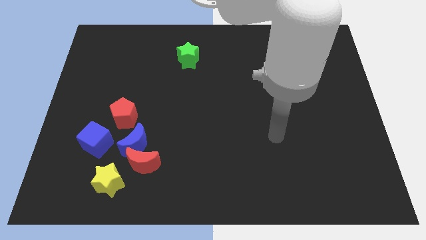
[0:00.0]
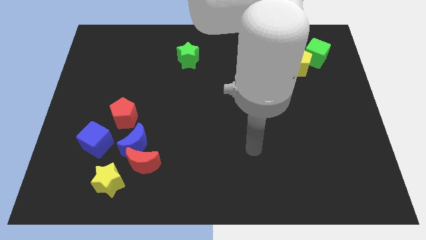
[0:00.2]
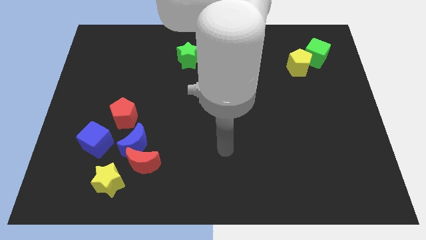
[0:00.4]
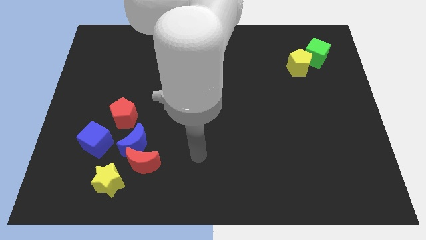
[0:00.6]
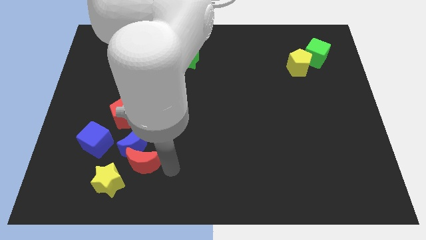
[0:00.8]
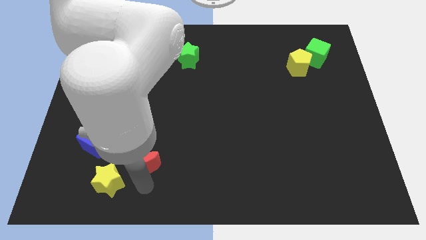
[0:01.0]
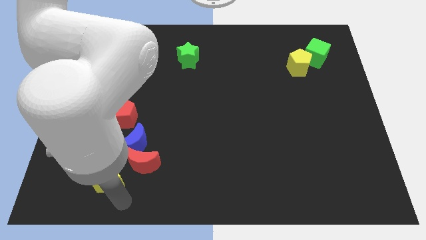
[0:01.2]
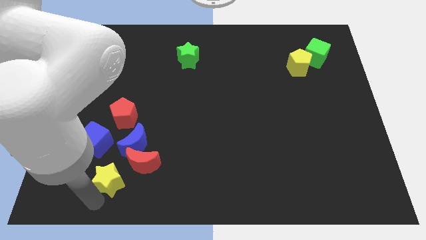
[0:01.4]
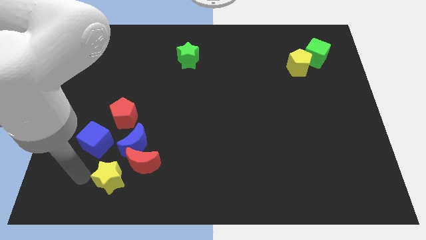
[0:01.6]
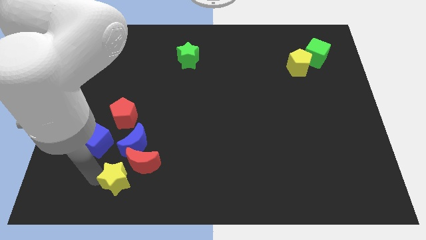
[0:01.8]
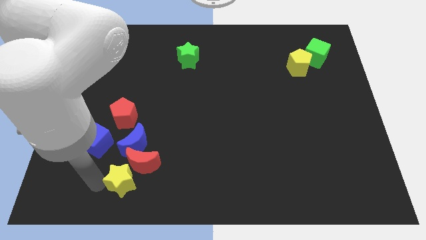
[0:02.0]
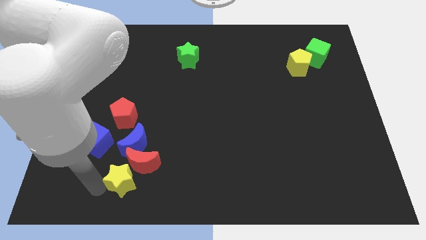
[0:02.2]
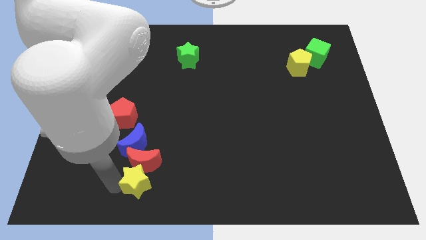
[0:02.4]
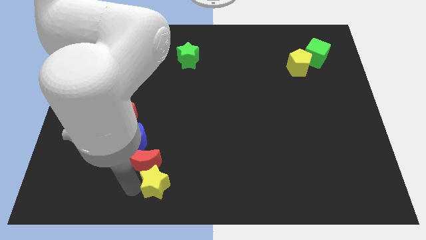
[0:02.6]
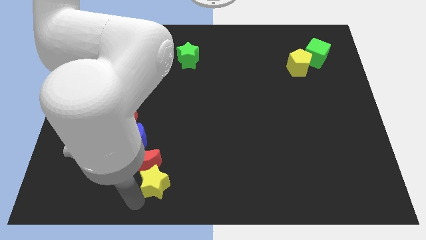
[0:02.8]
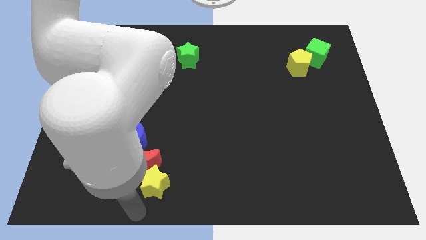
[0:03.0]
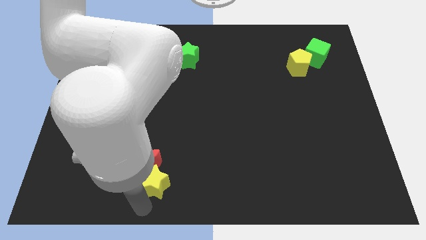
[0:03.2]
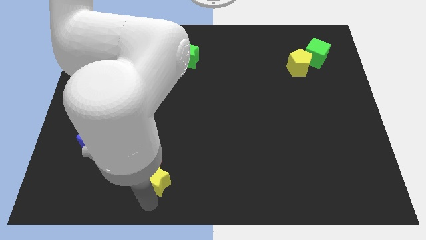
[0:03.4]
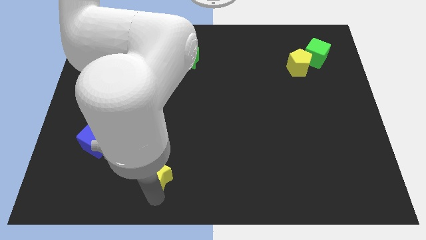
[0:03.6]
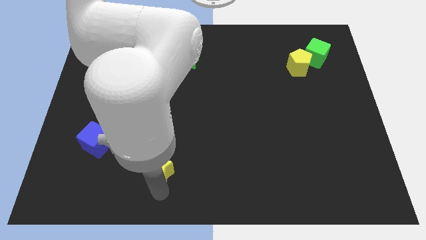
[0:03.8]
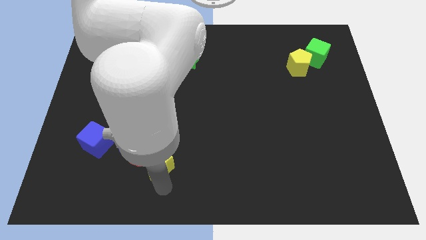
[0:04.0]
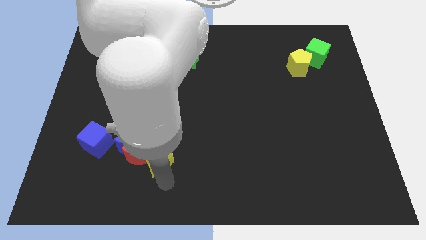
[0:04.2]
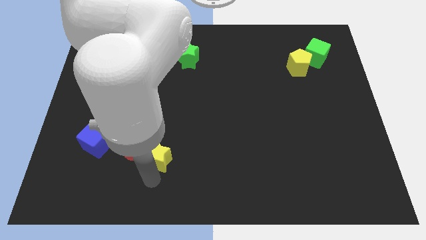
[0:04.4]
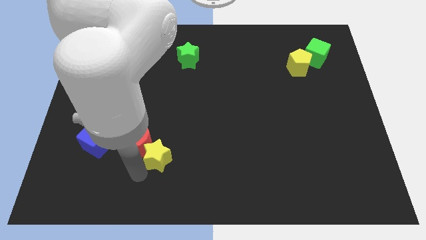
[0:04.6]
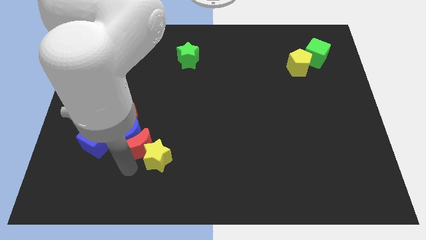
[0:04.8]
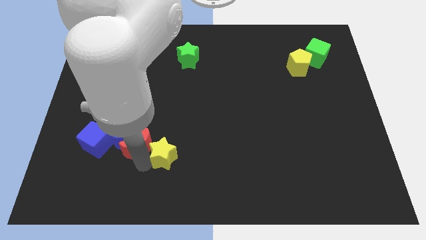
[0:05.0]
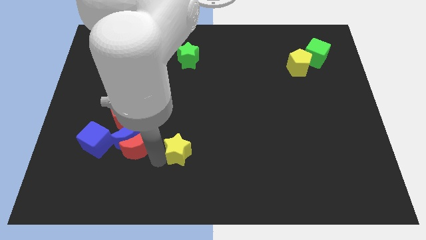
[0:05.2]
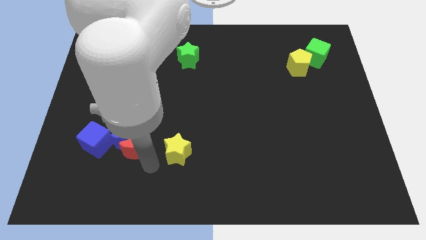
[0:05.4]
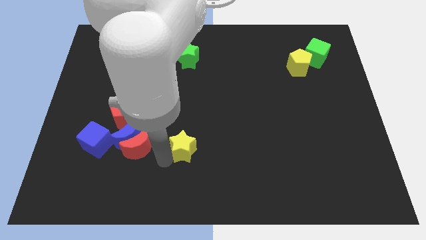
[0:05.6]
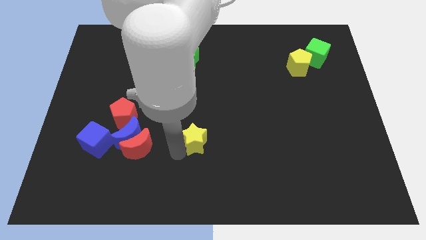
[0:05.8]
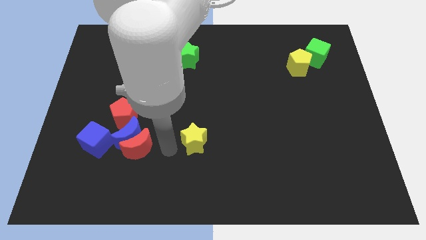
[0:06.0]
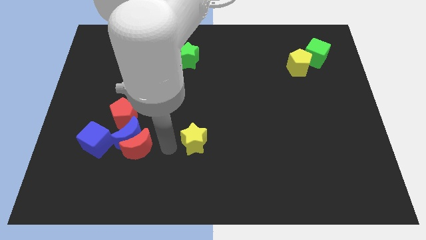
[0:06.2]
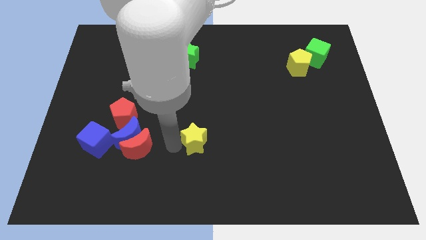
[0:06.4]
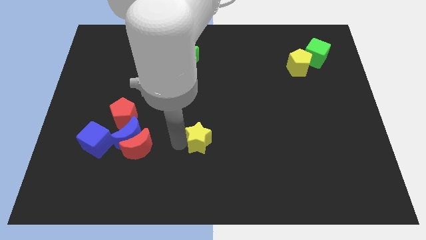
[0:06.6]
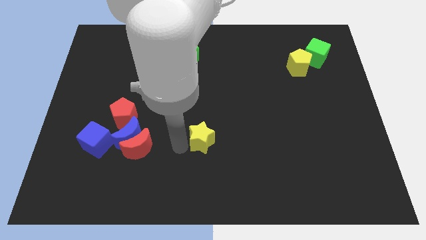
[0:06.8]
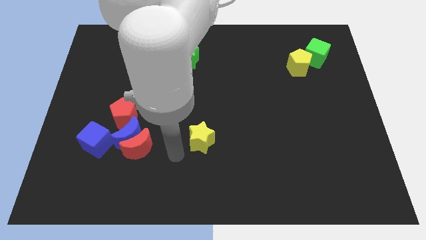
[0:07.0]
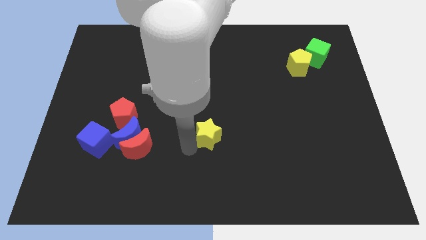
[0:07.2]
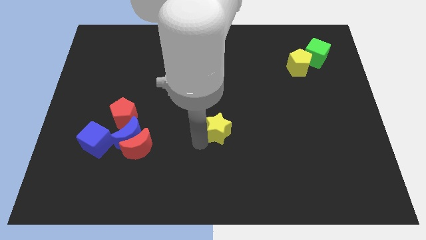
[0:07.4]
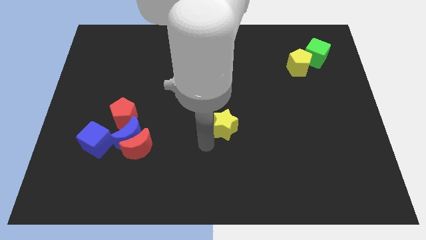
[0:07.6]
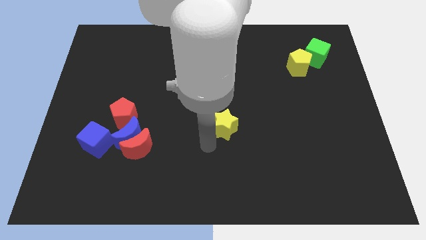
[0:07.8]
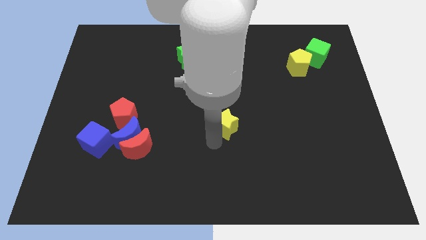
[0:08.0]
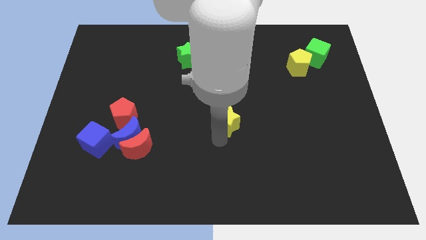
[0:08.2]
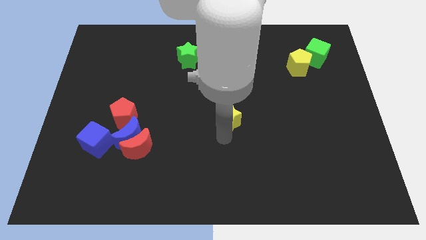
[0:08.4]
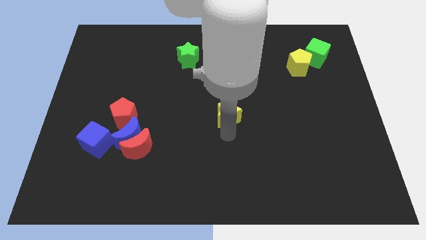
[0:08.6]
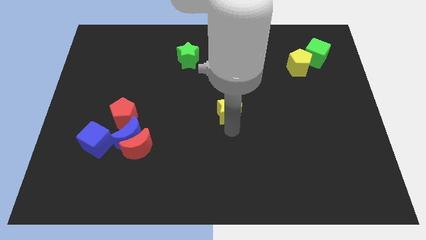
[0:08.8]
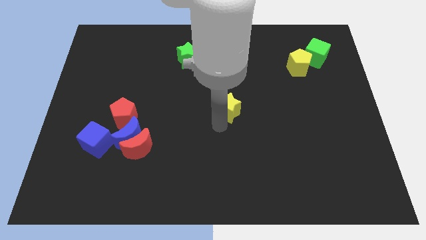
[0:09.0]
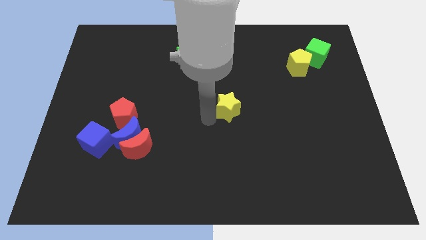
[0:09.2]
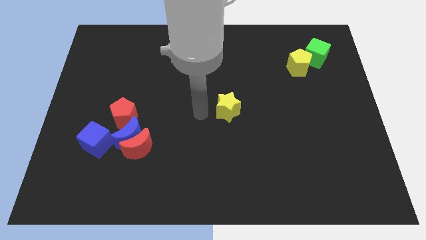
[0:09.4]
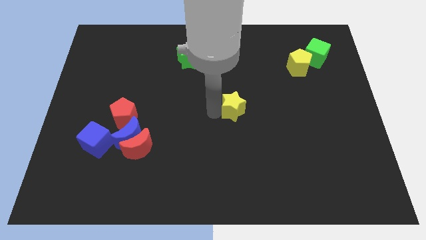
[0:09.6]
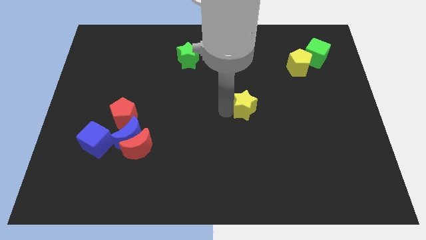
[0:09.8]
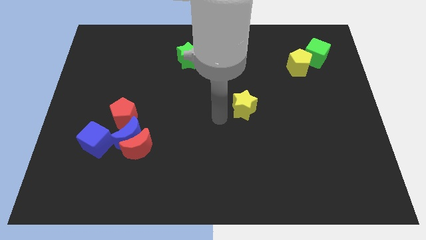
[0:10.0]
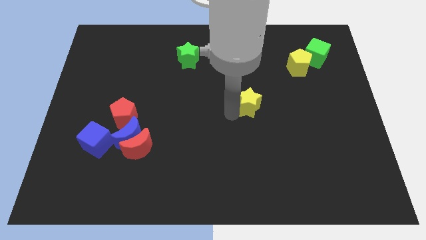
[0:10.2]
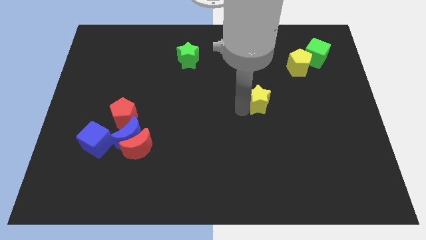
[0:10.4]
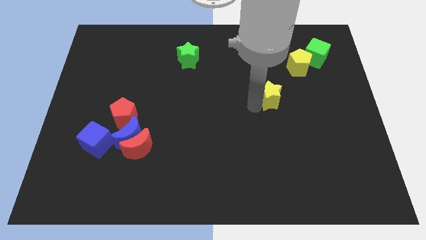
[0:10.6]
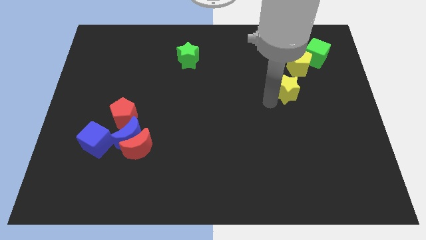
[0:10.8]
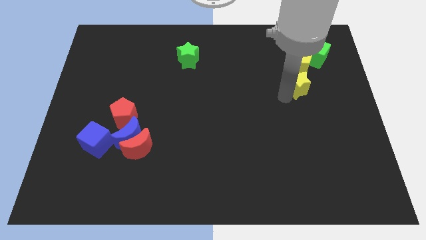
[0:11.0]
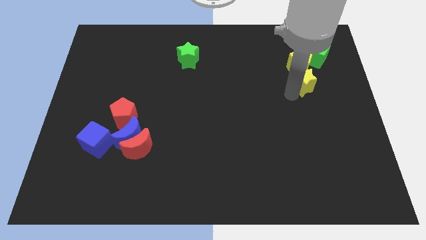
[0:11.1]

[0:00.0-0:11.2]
slide the yellow star to the bottom left of the green cube

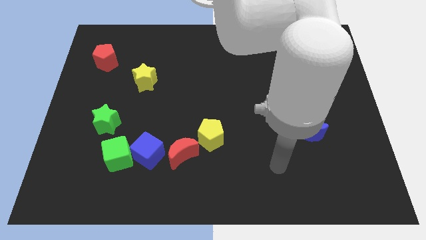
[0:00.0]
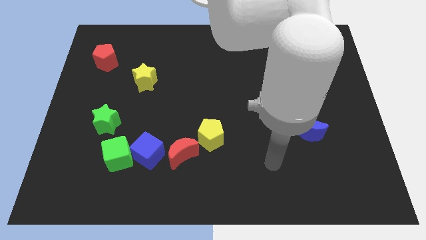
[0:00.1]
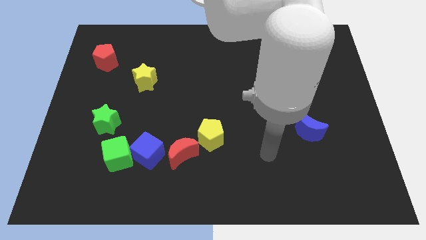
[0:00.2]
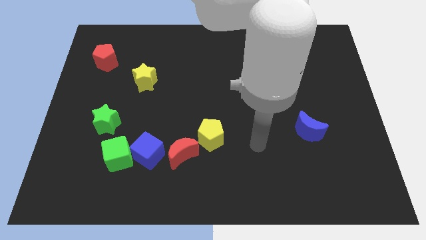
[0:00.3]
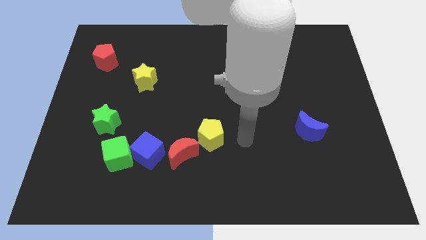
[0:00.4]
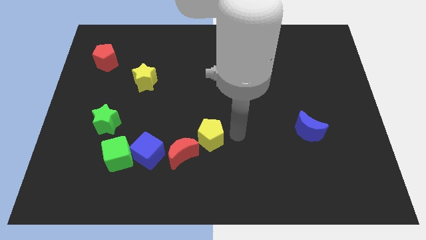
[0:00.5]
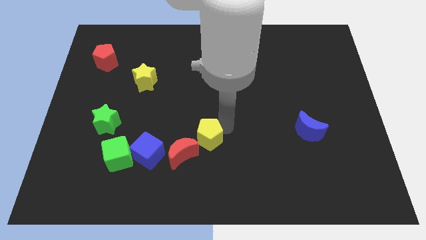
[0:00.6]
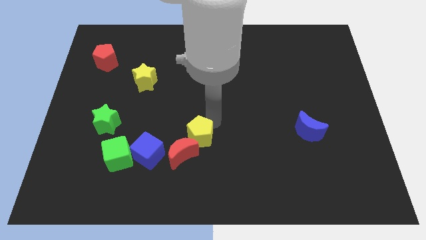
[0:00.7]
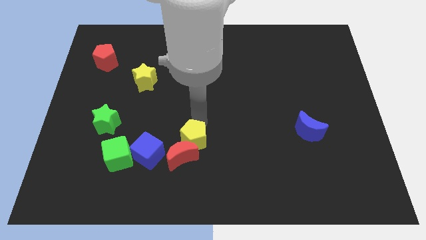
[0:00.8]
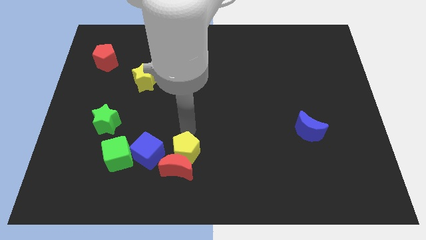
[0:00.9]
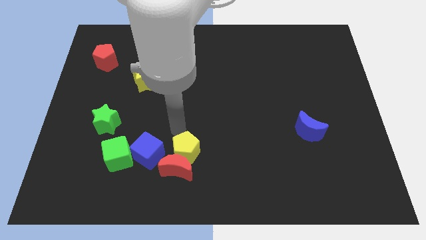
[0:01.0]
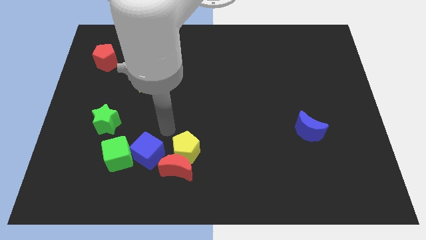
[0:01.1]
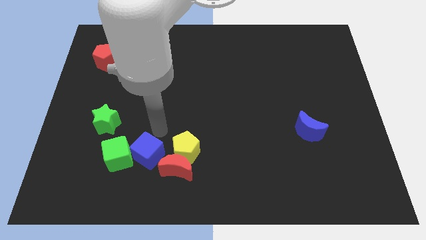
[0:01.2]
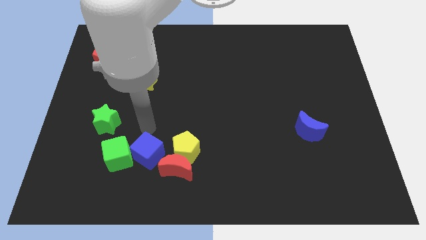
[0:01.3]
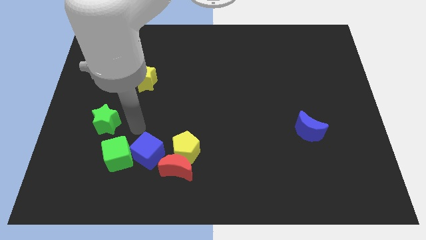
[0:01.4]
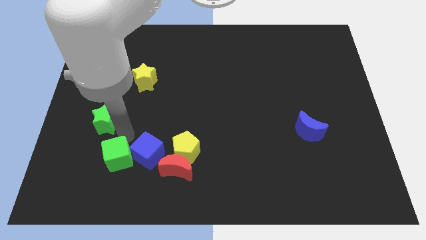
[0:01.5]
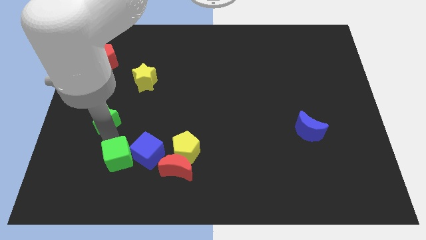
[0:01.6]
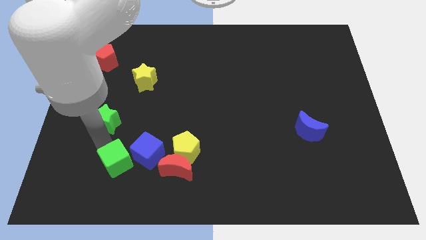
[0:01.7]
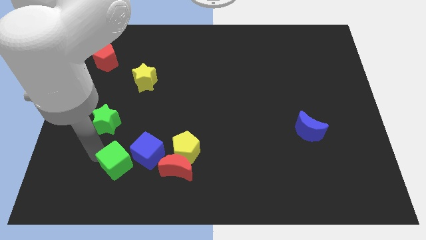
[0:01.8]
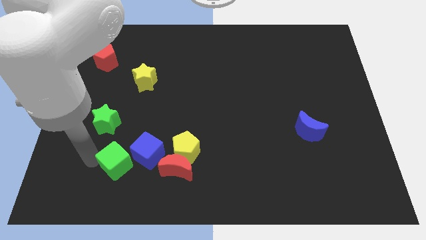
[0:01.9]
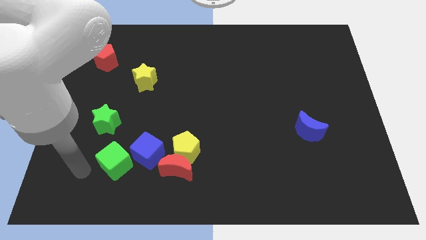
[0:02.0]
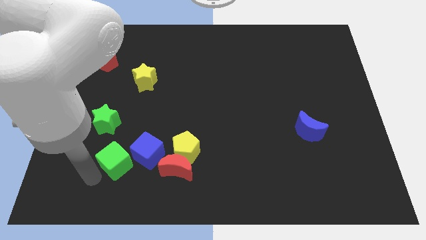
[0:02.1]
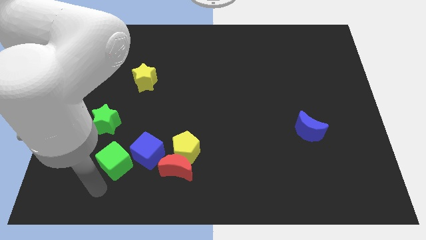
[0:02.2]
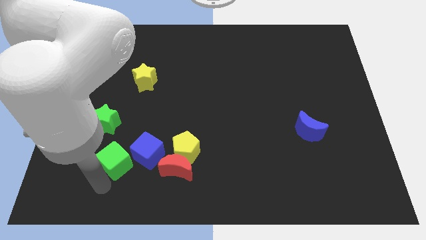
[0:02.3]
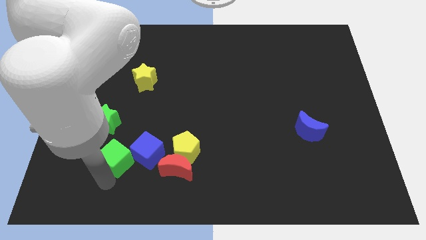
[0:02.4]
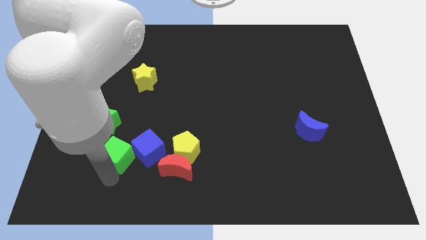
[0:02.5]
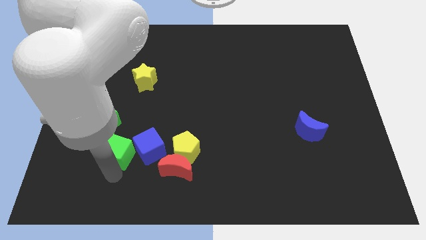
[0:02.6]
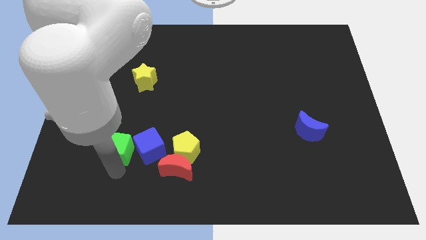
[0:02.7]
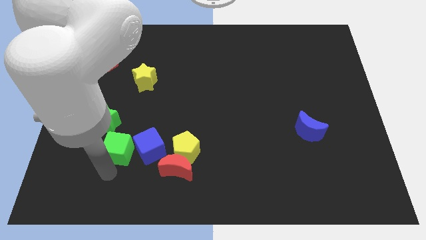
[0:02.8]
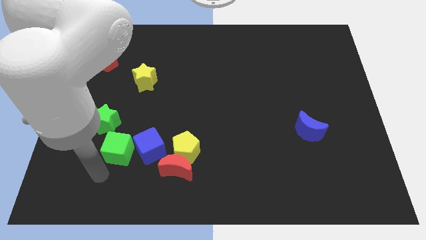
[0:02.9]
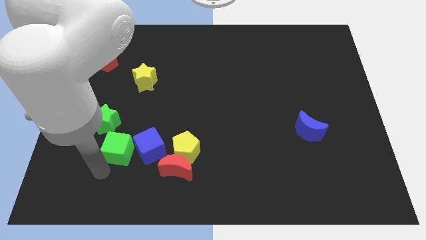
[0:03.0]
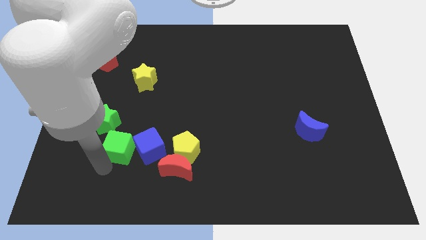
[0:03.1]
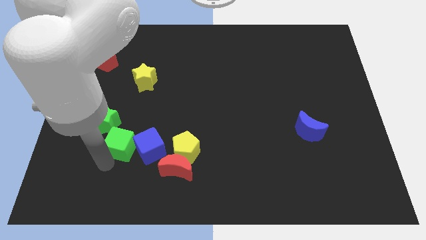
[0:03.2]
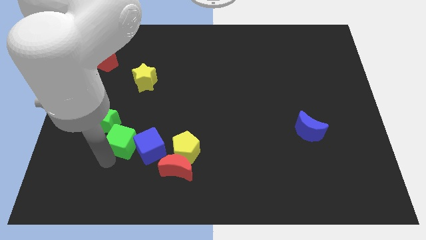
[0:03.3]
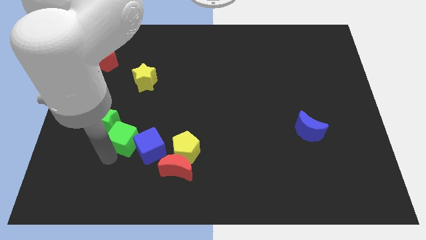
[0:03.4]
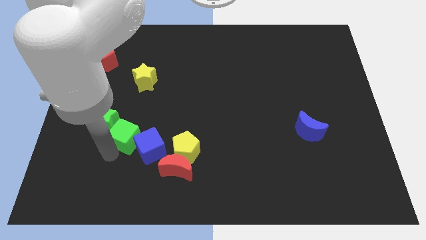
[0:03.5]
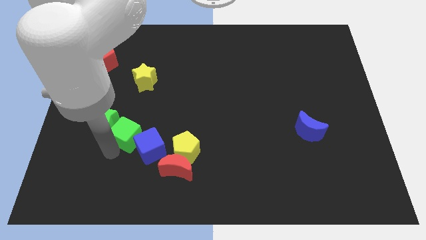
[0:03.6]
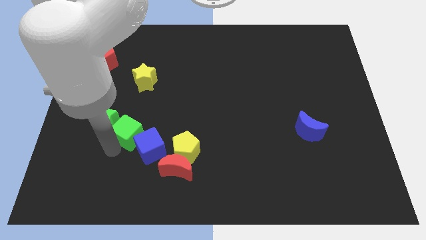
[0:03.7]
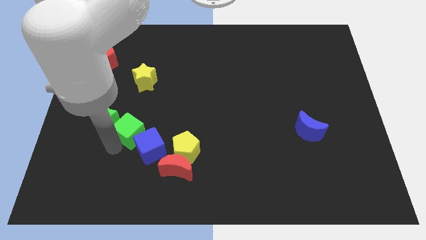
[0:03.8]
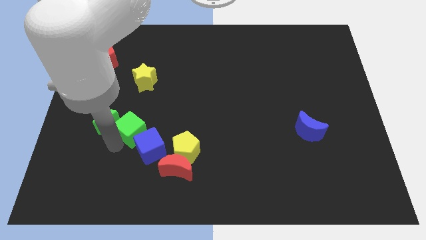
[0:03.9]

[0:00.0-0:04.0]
slide the green cube above the blue cube
